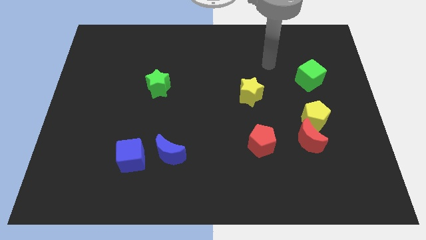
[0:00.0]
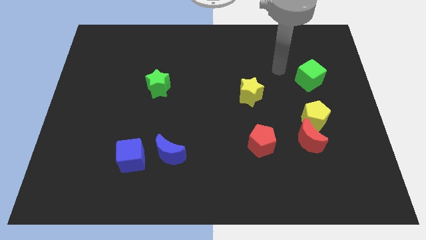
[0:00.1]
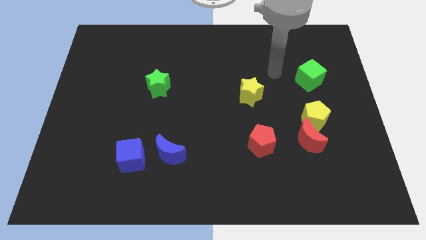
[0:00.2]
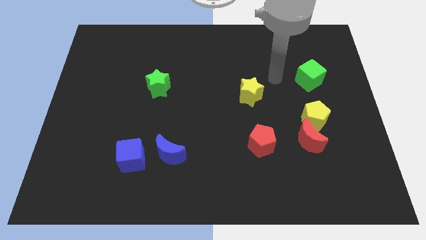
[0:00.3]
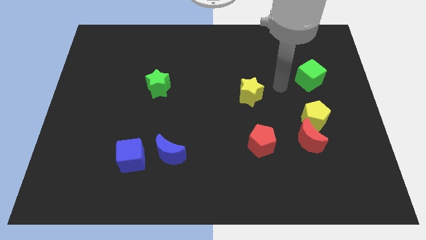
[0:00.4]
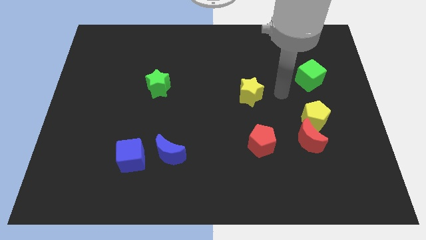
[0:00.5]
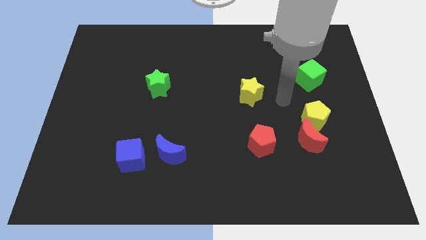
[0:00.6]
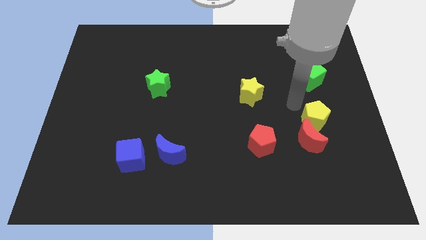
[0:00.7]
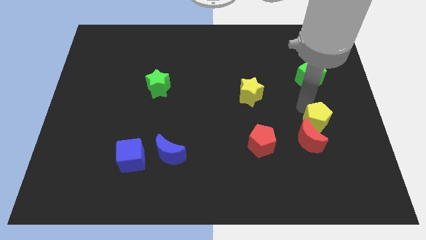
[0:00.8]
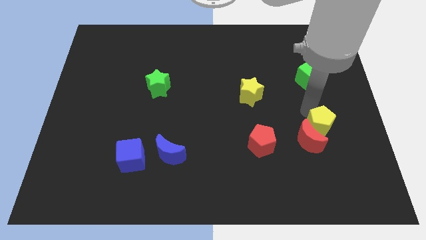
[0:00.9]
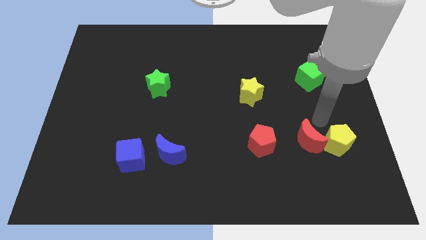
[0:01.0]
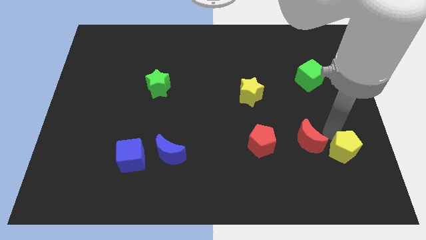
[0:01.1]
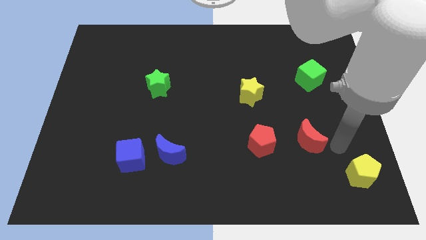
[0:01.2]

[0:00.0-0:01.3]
separate the red moon from the yellow pentagon

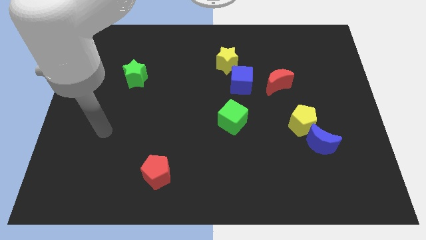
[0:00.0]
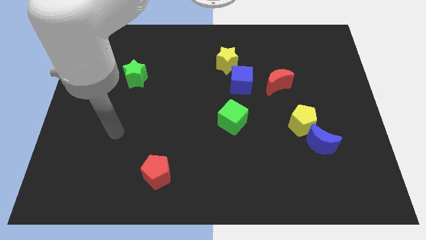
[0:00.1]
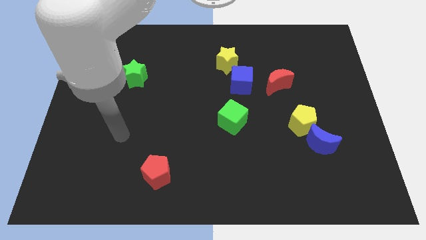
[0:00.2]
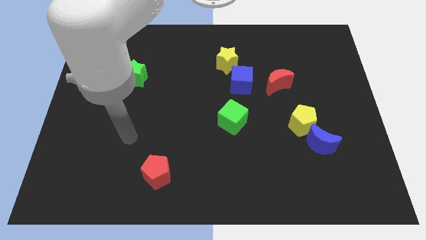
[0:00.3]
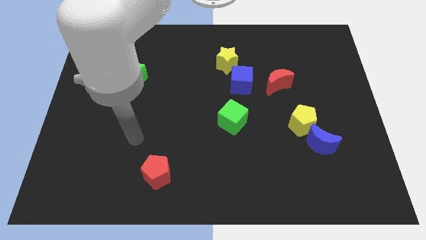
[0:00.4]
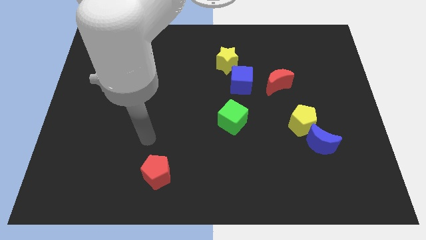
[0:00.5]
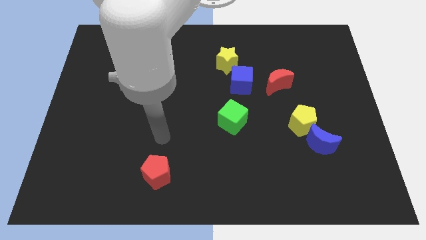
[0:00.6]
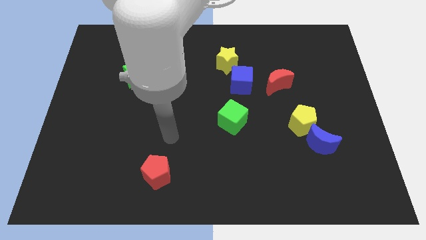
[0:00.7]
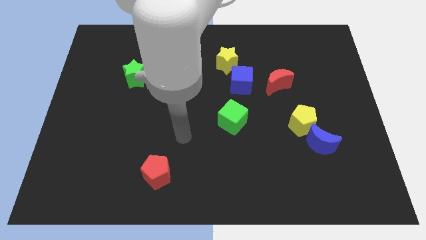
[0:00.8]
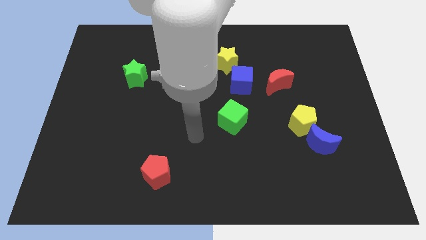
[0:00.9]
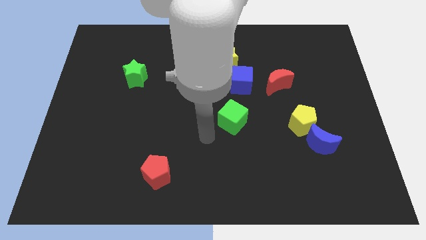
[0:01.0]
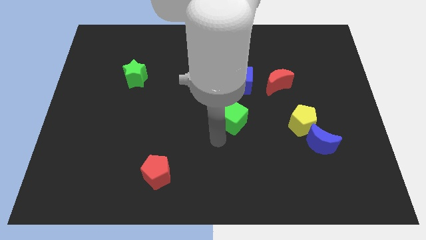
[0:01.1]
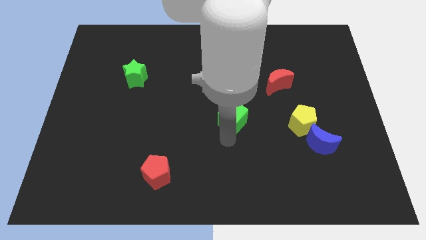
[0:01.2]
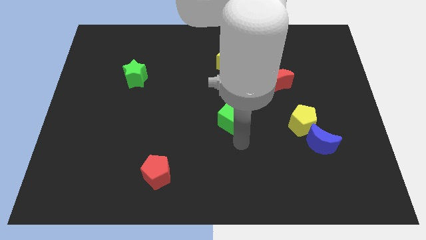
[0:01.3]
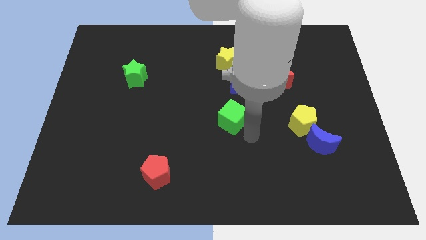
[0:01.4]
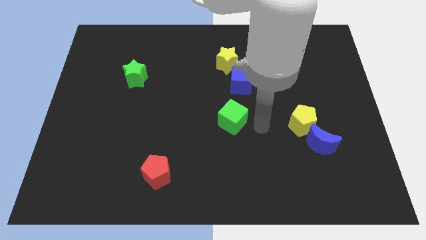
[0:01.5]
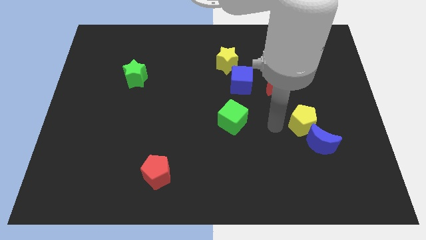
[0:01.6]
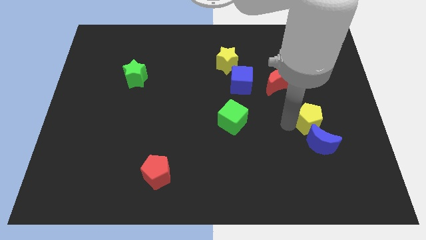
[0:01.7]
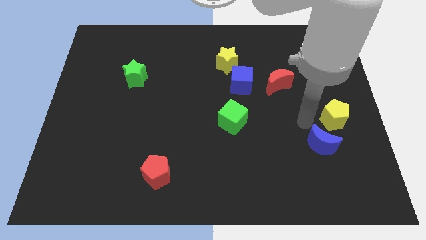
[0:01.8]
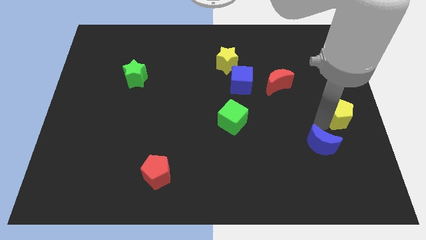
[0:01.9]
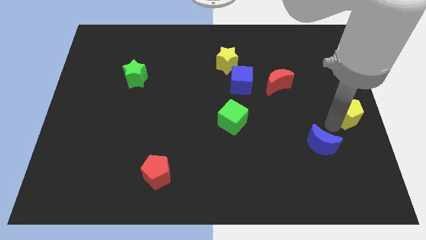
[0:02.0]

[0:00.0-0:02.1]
move the blue moon away from the yellow pentagon

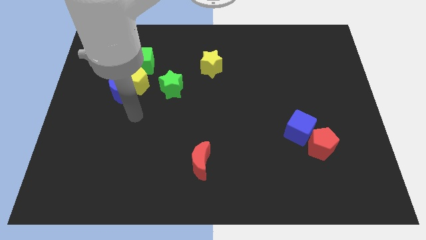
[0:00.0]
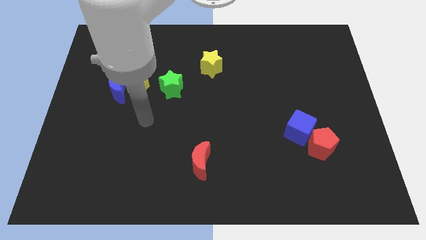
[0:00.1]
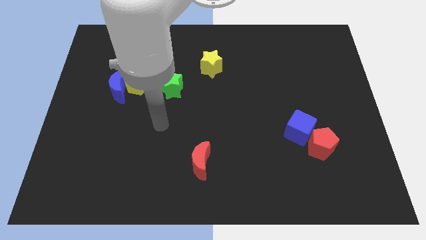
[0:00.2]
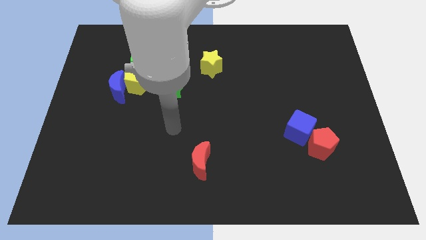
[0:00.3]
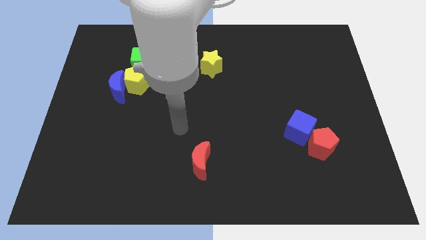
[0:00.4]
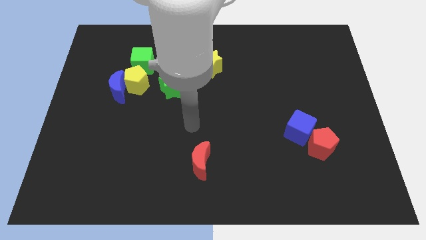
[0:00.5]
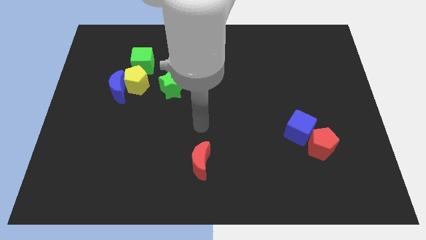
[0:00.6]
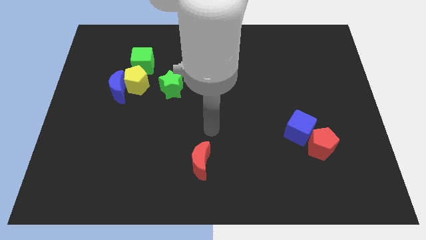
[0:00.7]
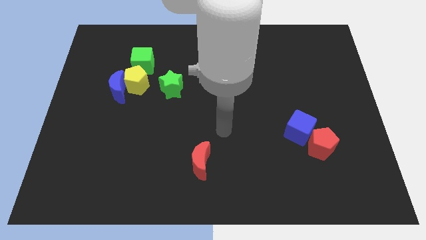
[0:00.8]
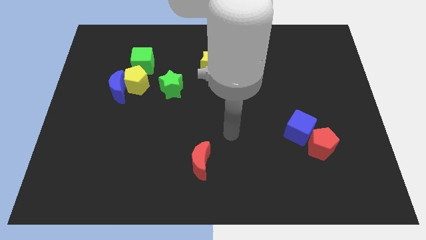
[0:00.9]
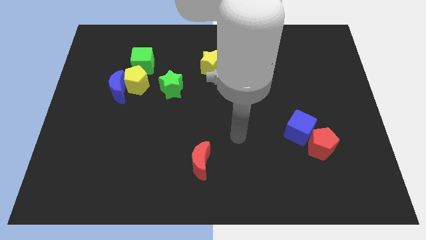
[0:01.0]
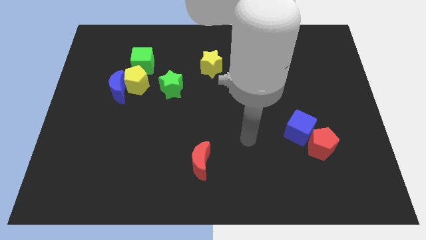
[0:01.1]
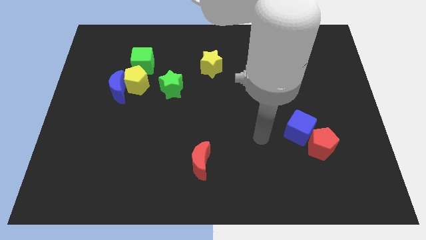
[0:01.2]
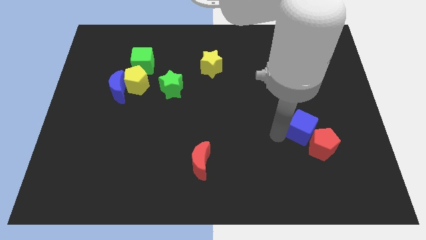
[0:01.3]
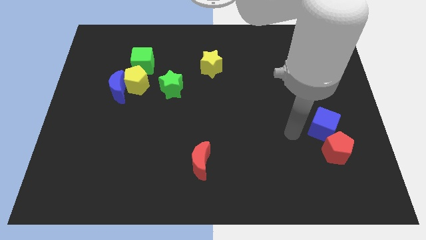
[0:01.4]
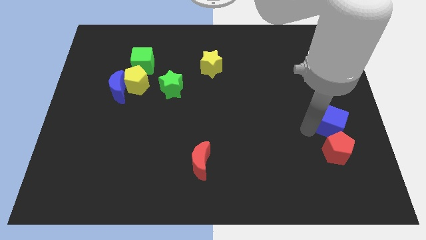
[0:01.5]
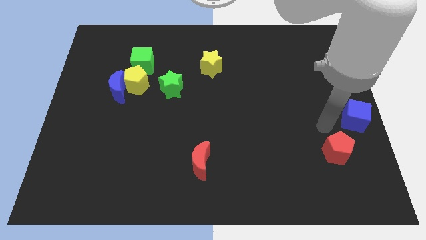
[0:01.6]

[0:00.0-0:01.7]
move the red pentagon away from the blue cube

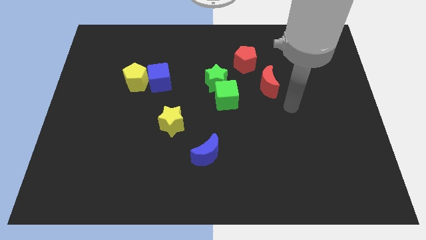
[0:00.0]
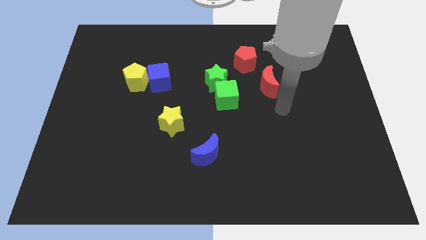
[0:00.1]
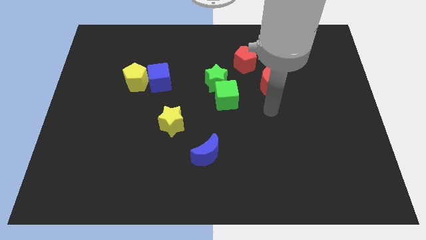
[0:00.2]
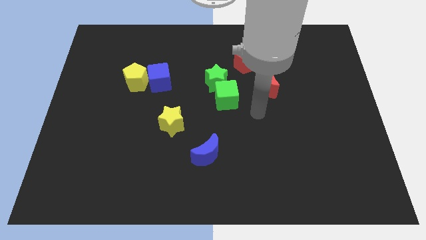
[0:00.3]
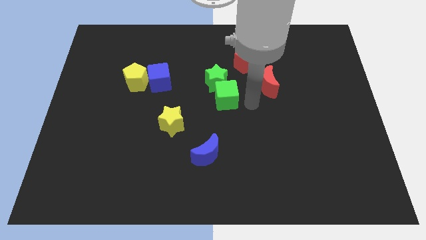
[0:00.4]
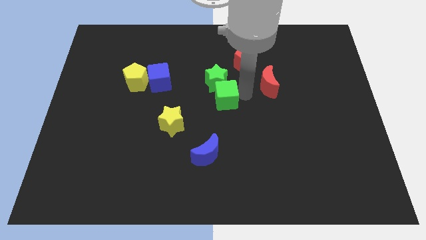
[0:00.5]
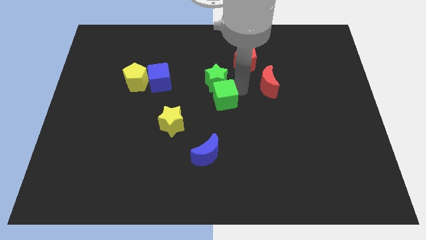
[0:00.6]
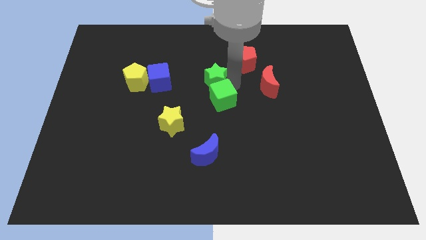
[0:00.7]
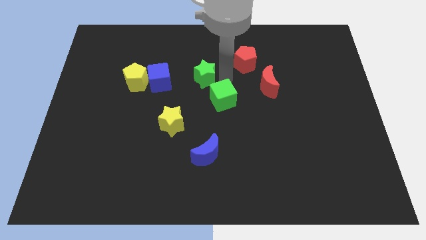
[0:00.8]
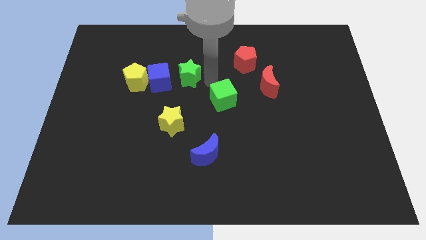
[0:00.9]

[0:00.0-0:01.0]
separate the green cube from the green star

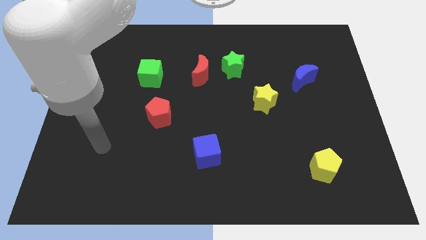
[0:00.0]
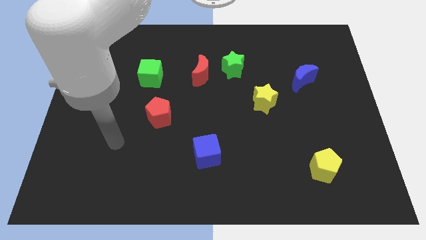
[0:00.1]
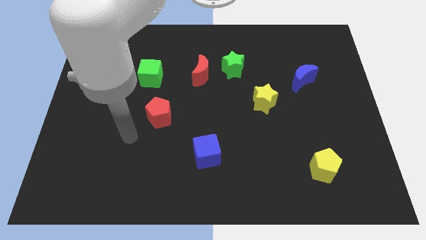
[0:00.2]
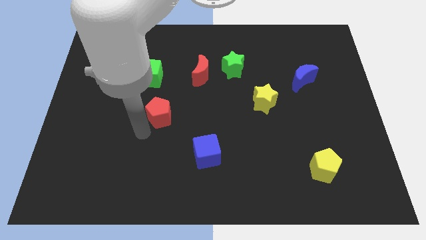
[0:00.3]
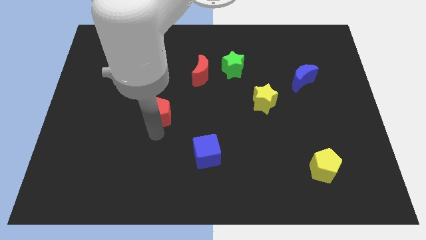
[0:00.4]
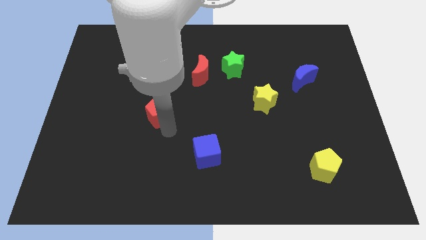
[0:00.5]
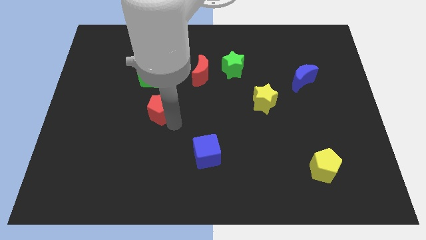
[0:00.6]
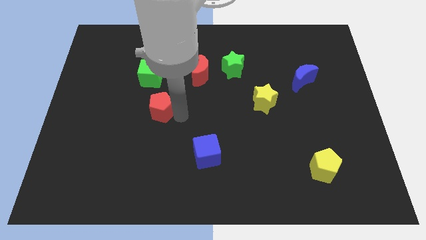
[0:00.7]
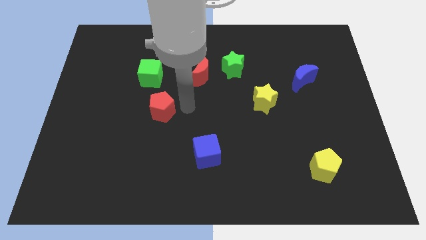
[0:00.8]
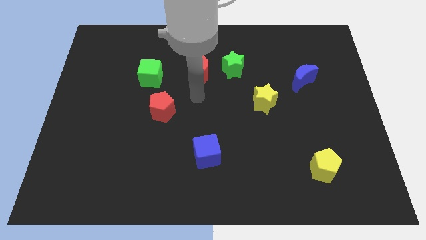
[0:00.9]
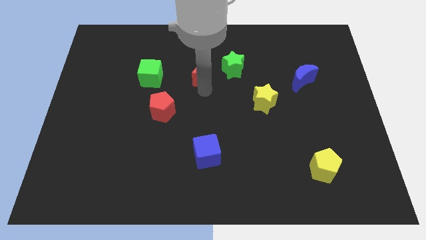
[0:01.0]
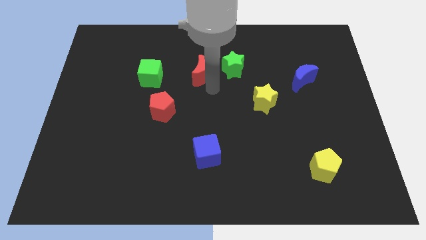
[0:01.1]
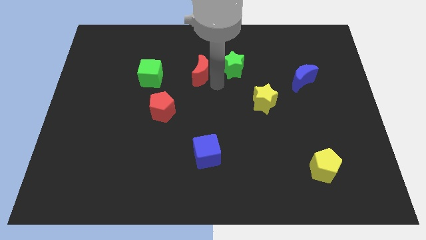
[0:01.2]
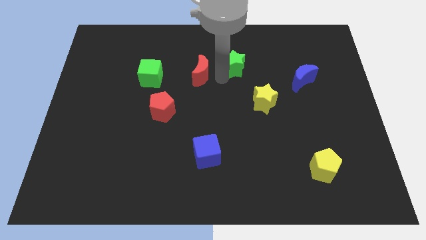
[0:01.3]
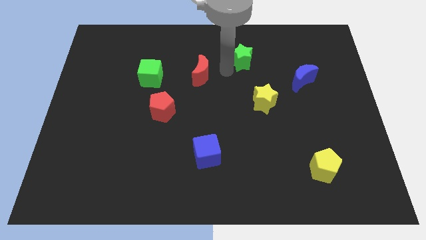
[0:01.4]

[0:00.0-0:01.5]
separate the red moon from the green star

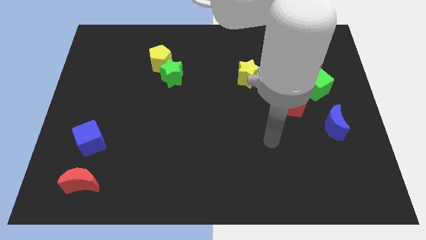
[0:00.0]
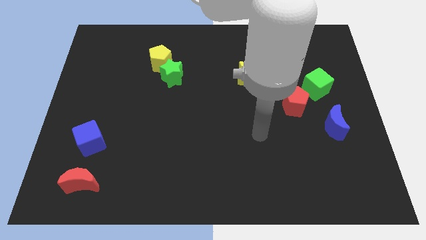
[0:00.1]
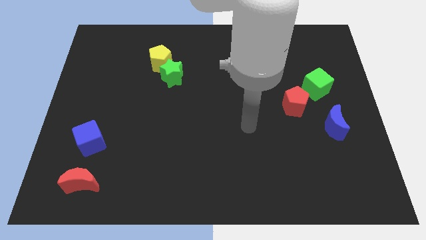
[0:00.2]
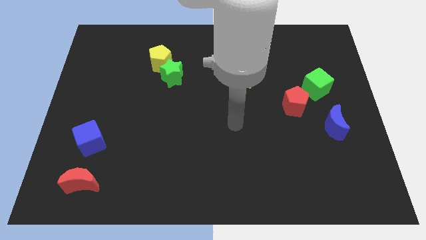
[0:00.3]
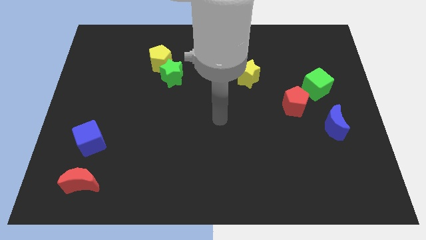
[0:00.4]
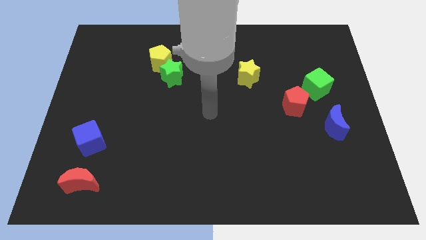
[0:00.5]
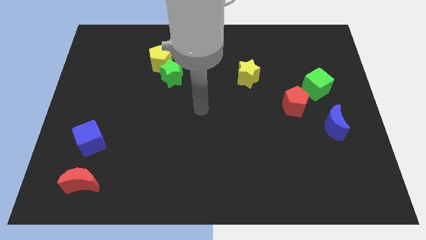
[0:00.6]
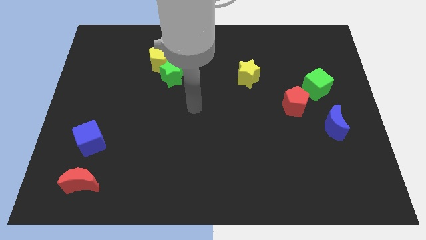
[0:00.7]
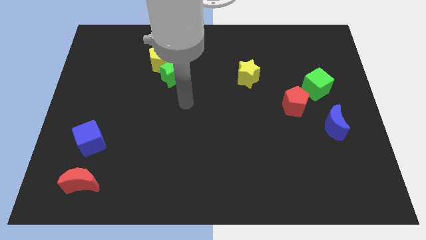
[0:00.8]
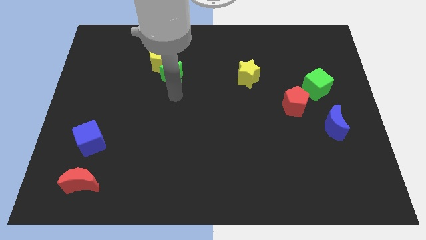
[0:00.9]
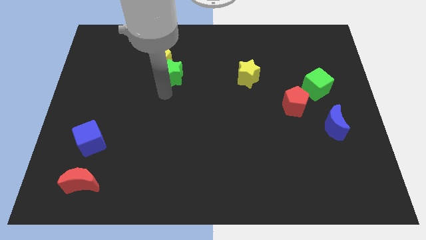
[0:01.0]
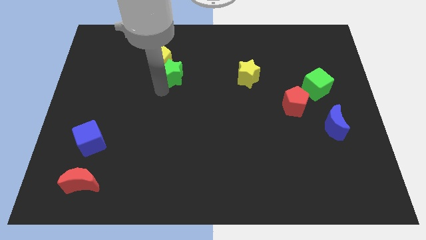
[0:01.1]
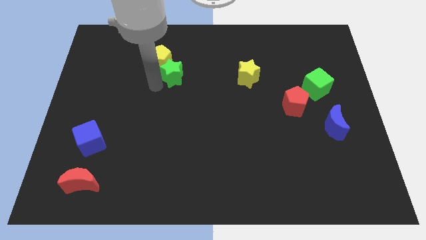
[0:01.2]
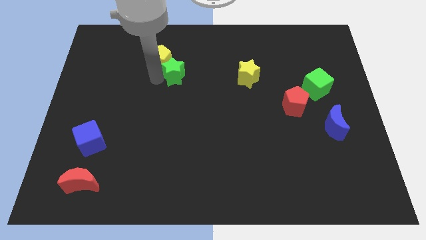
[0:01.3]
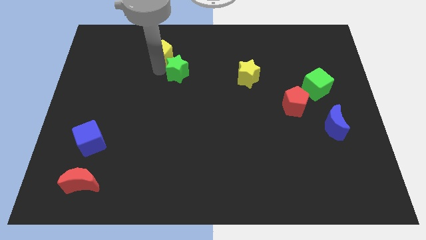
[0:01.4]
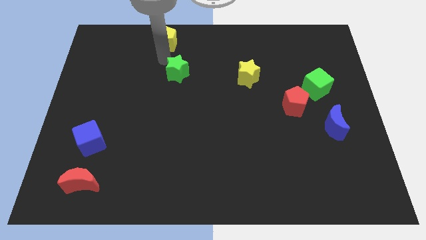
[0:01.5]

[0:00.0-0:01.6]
pull the green star apart from the yellow pentagon
